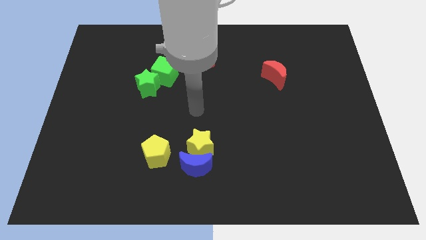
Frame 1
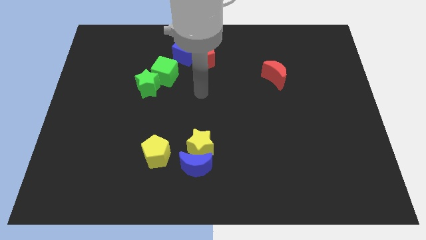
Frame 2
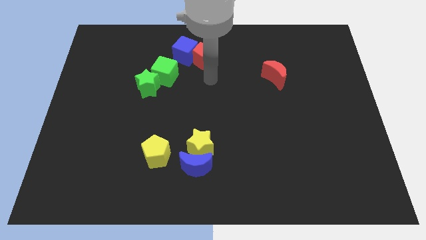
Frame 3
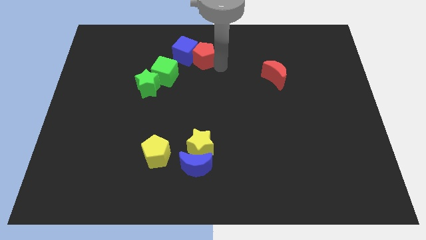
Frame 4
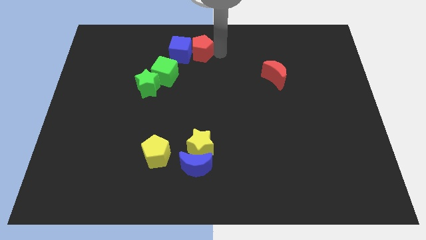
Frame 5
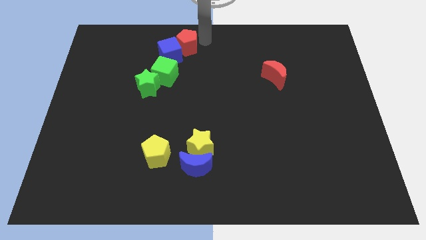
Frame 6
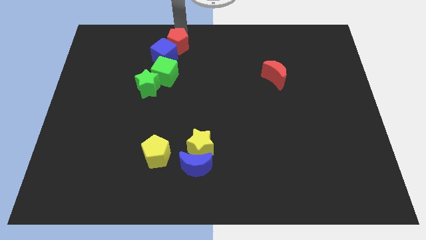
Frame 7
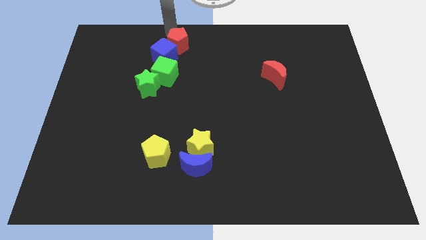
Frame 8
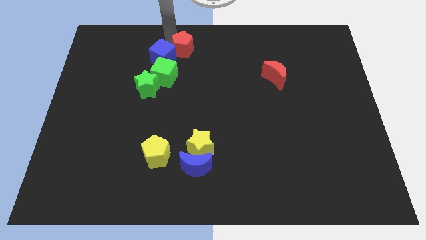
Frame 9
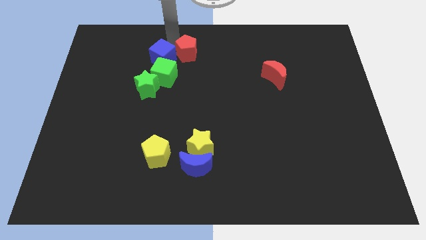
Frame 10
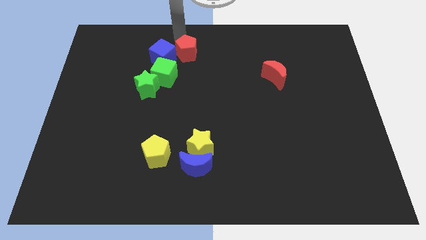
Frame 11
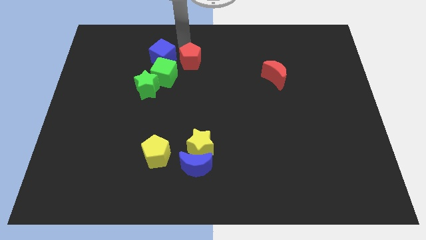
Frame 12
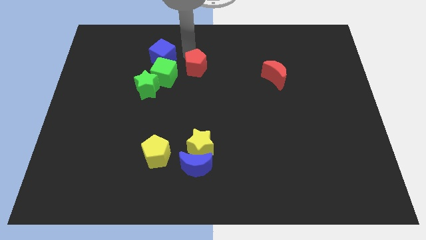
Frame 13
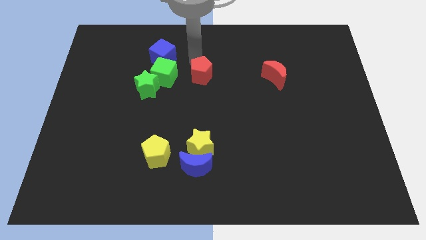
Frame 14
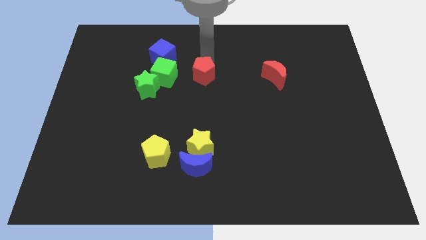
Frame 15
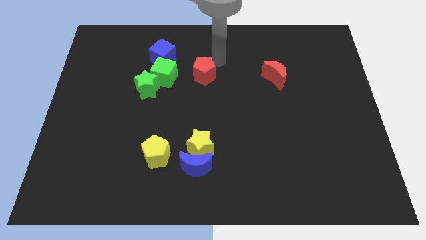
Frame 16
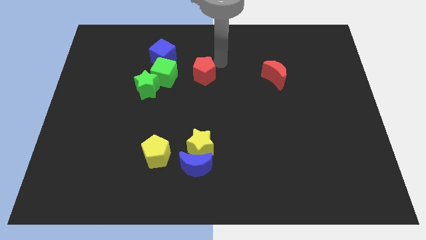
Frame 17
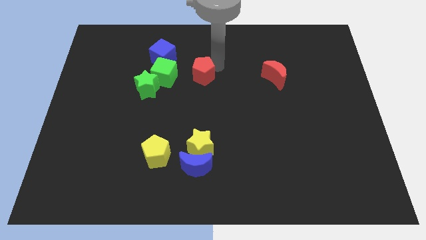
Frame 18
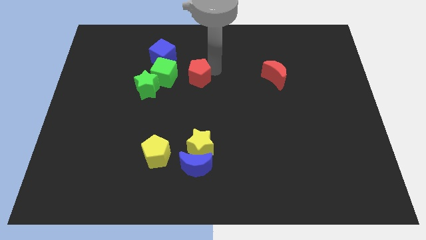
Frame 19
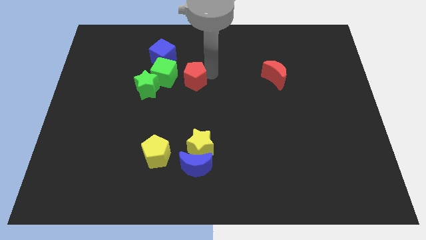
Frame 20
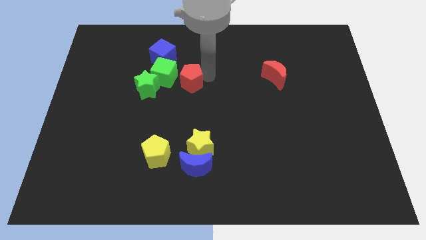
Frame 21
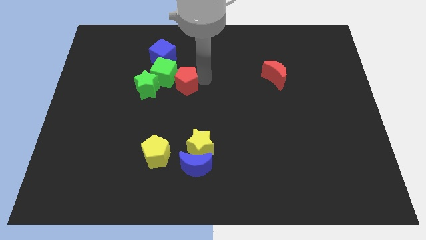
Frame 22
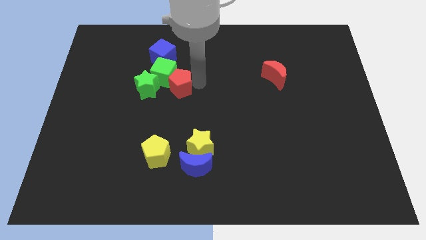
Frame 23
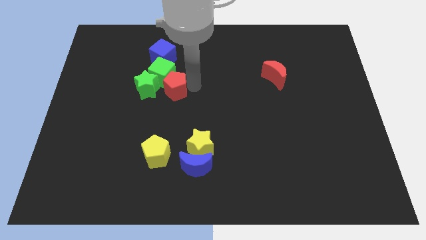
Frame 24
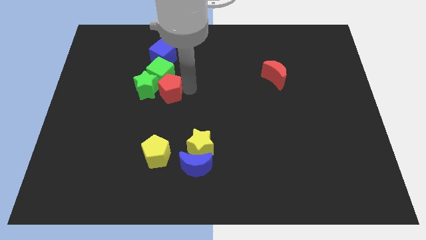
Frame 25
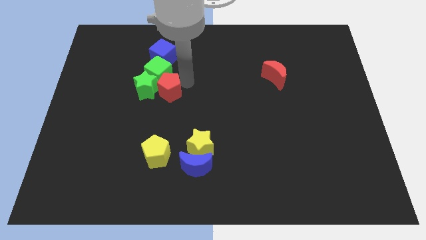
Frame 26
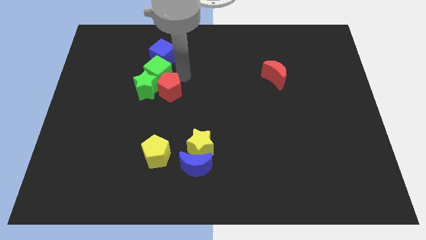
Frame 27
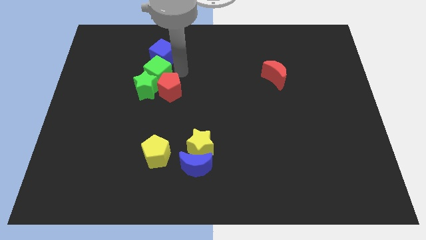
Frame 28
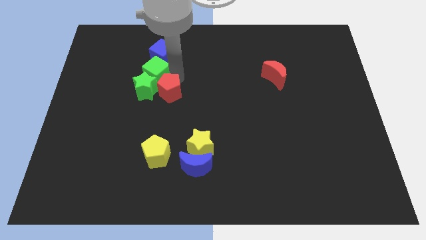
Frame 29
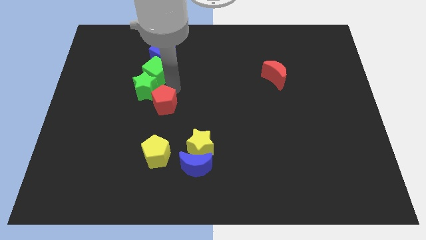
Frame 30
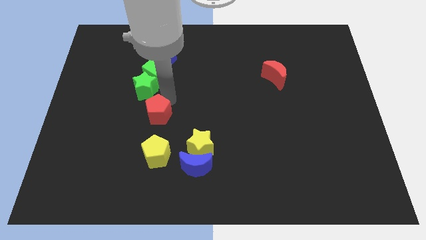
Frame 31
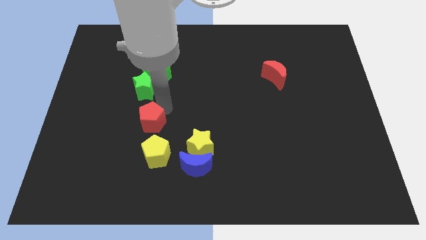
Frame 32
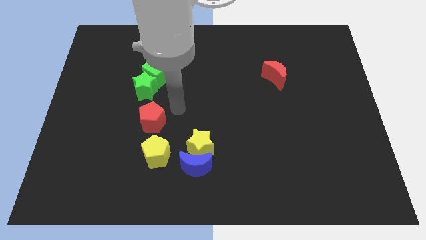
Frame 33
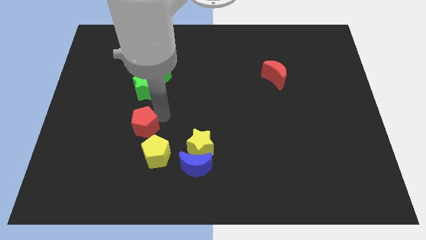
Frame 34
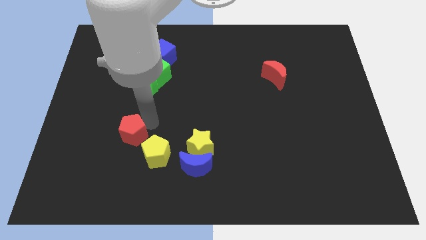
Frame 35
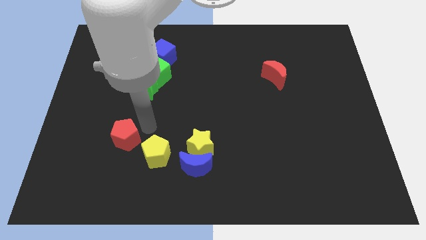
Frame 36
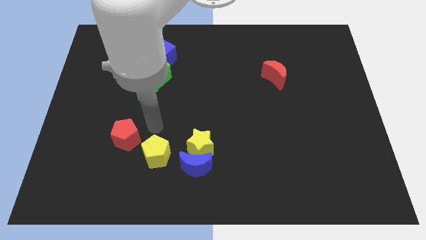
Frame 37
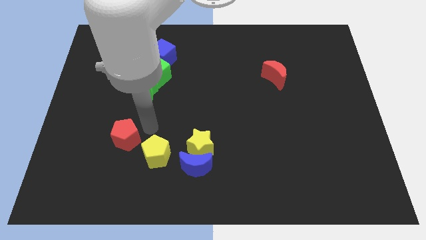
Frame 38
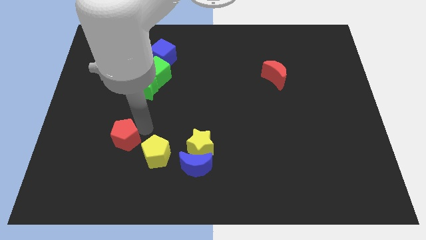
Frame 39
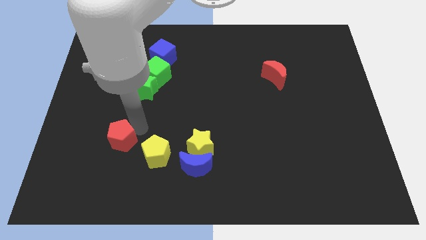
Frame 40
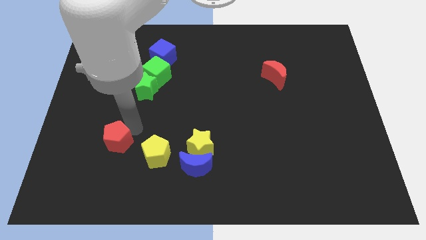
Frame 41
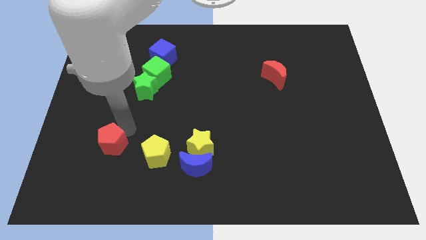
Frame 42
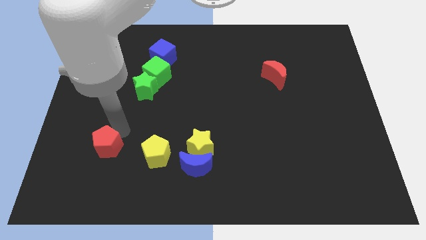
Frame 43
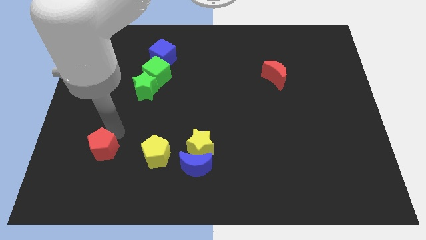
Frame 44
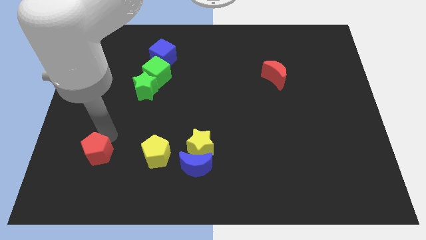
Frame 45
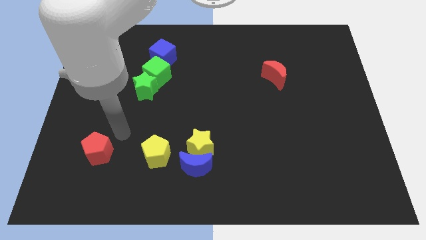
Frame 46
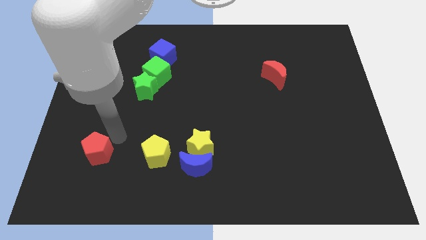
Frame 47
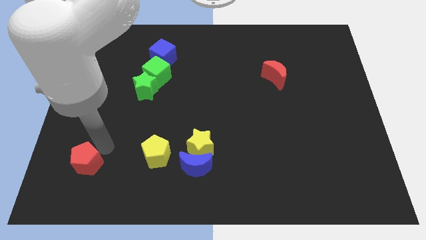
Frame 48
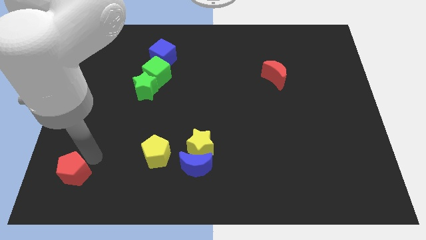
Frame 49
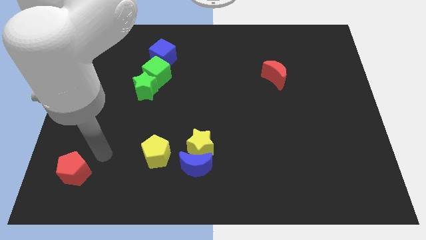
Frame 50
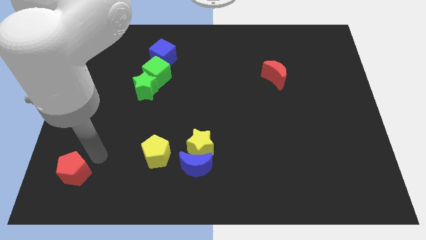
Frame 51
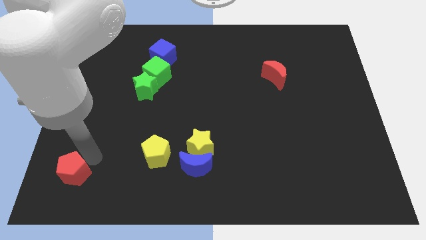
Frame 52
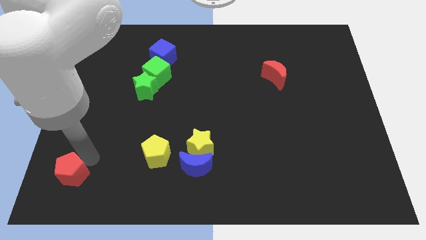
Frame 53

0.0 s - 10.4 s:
slide the red pentagon to the lower left corner

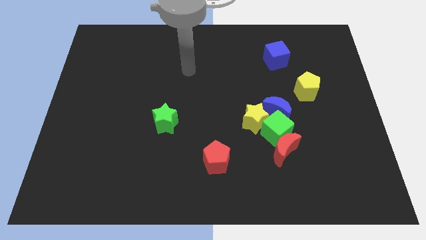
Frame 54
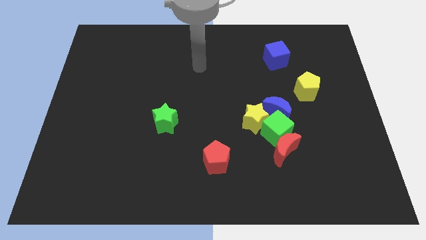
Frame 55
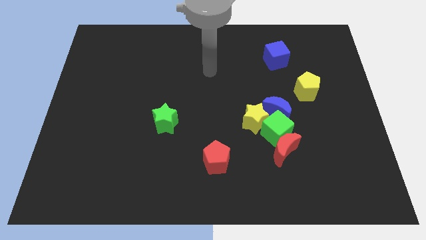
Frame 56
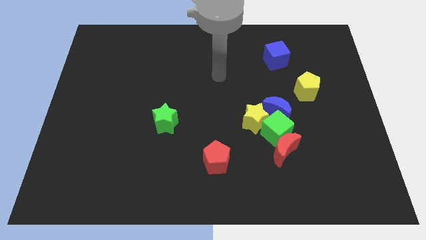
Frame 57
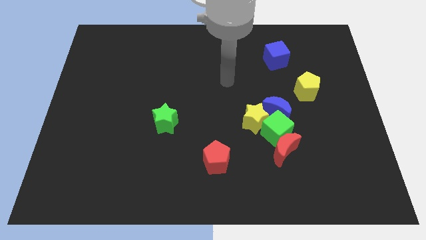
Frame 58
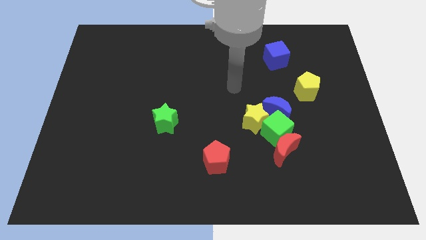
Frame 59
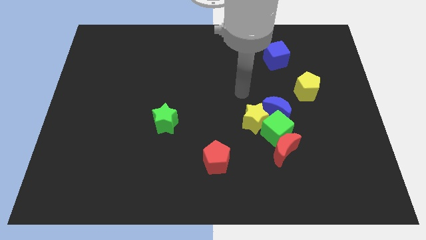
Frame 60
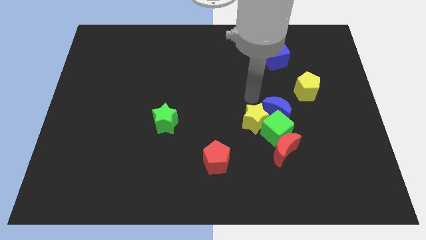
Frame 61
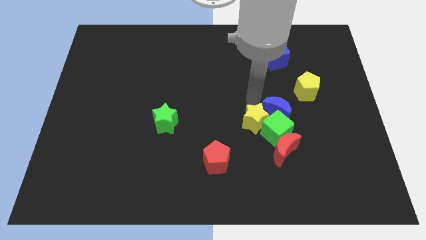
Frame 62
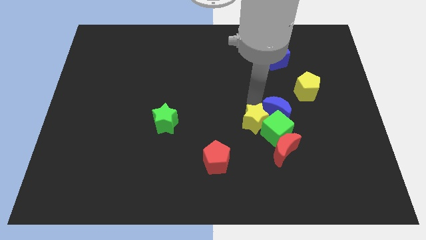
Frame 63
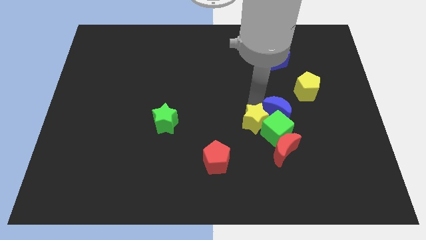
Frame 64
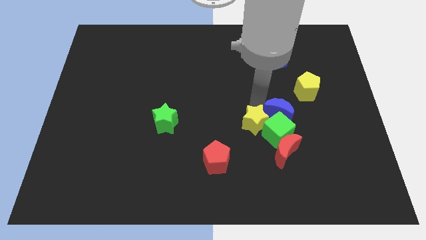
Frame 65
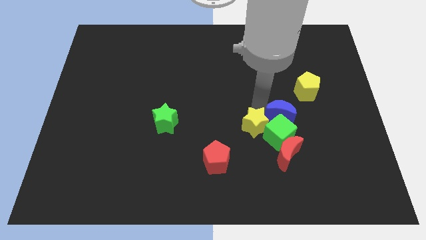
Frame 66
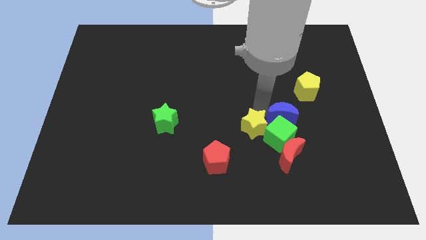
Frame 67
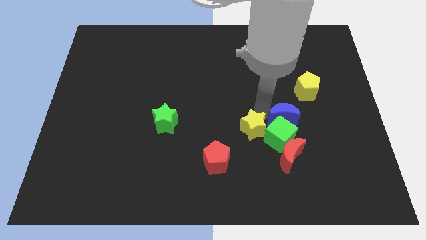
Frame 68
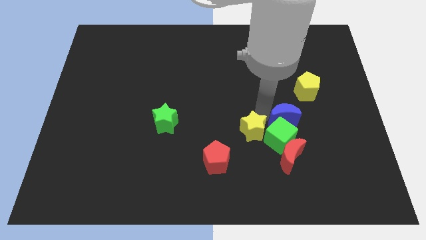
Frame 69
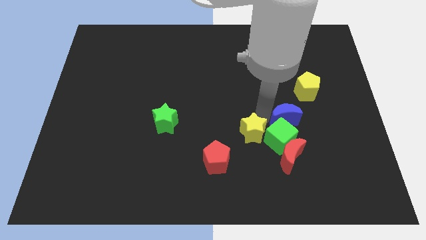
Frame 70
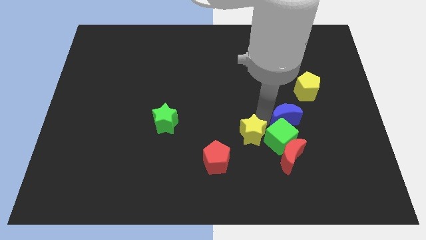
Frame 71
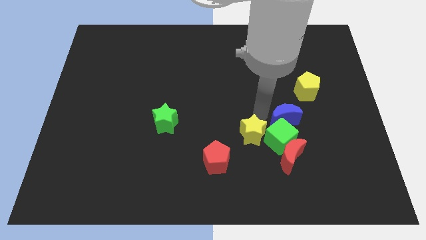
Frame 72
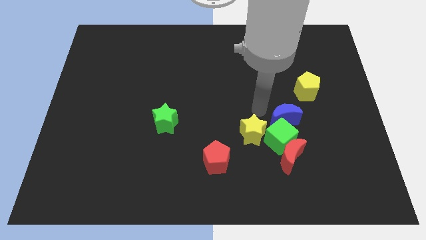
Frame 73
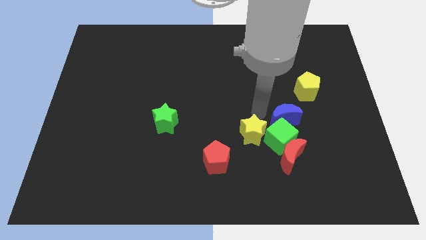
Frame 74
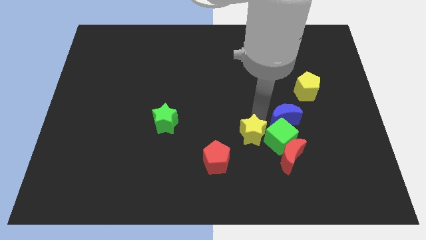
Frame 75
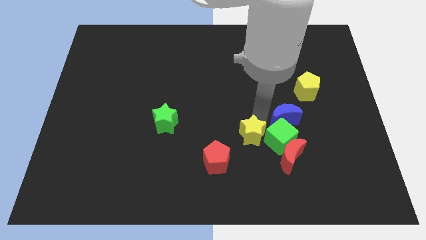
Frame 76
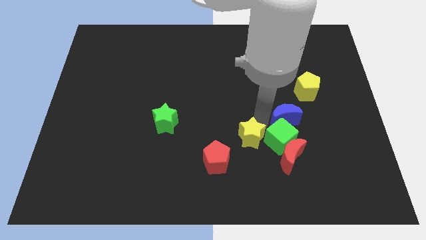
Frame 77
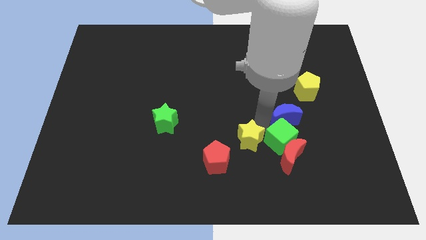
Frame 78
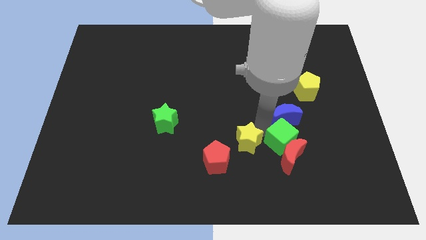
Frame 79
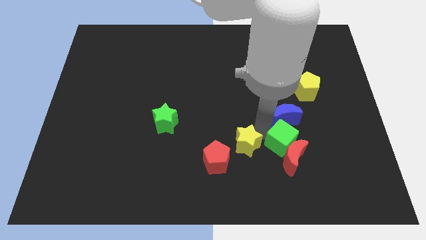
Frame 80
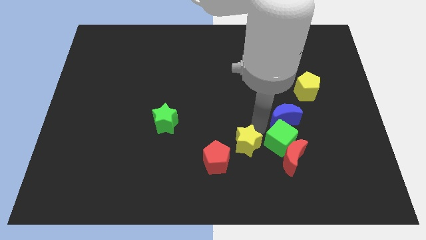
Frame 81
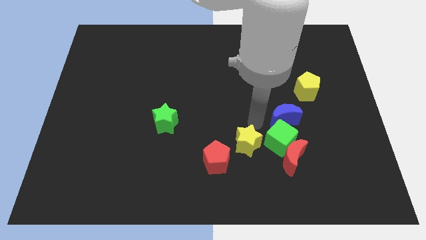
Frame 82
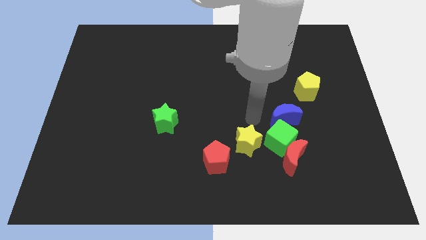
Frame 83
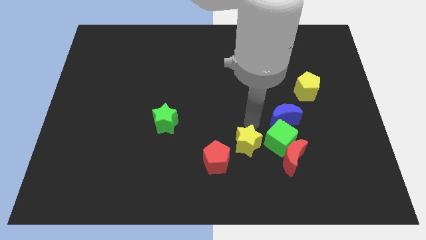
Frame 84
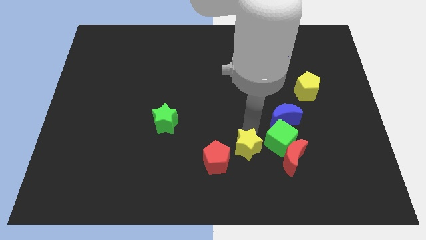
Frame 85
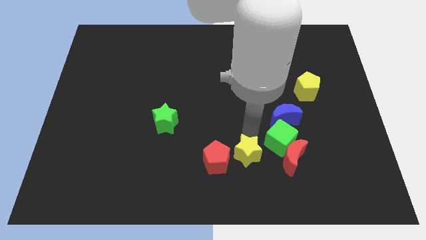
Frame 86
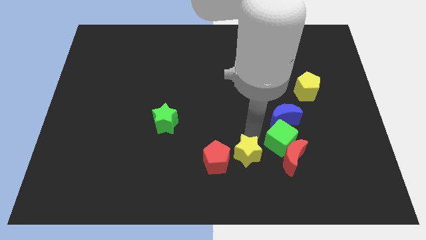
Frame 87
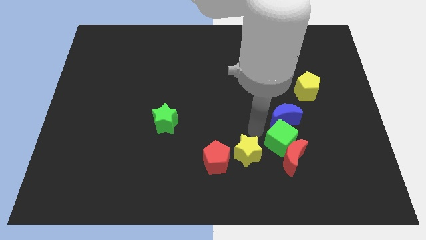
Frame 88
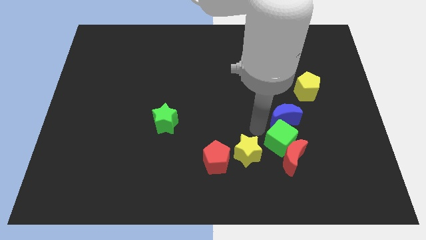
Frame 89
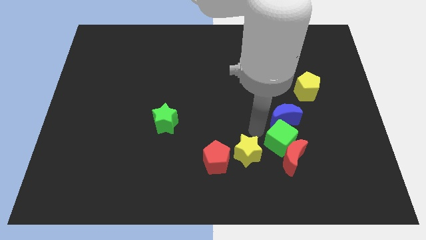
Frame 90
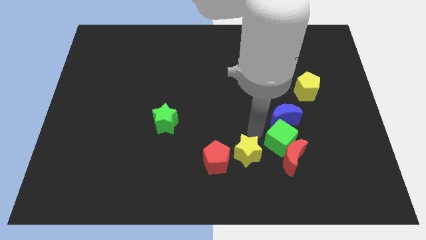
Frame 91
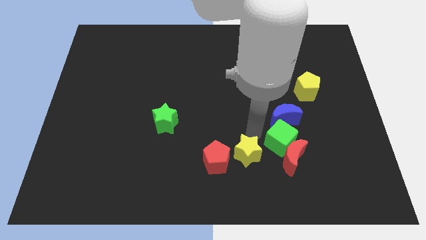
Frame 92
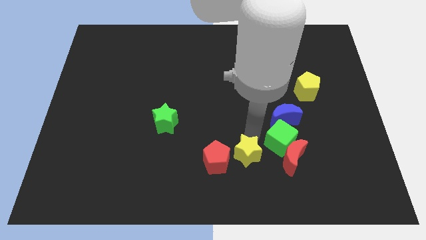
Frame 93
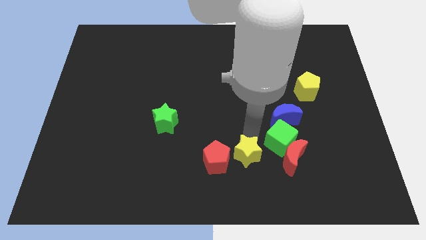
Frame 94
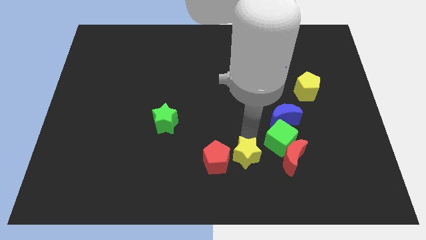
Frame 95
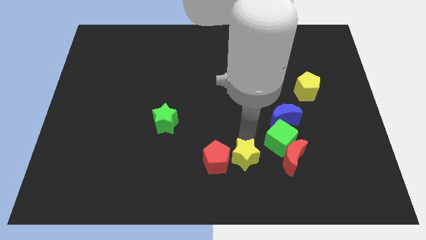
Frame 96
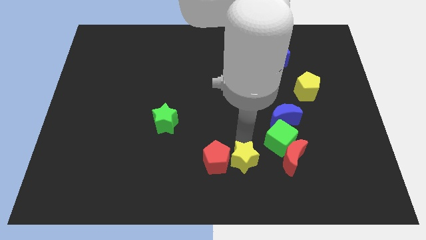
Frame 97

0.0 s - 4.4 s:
slide the yellow star to the bottom side
